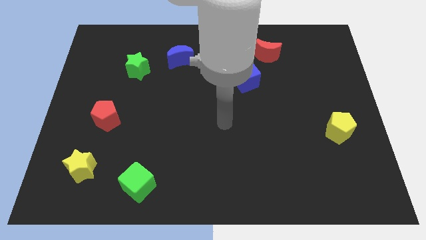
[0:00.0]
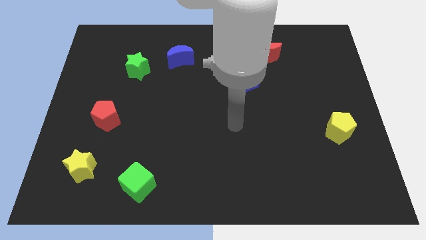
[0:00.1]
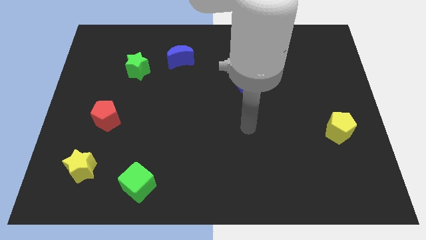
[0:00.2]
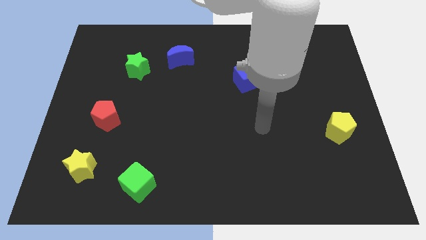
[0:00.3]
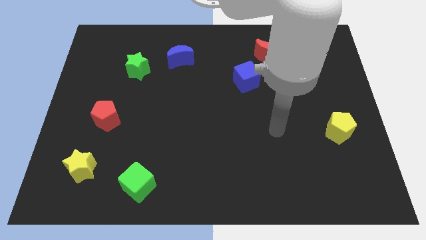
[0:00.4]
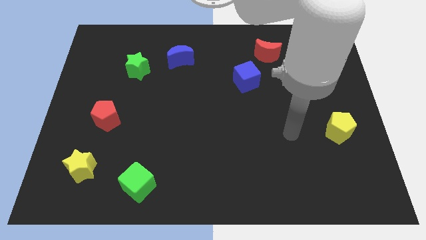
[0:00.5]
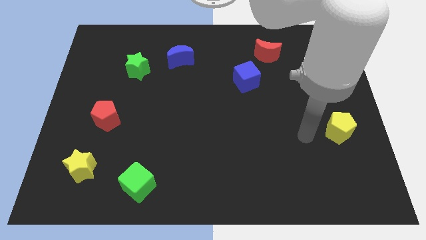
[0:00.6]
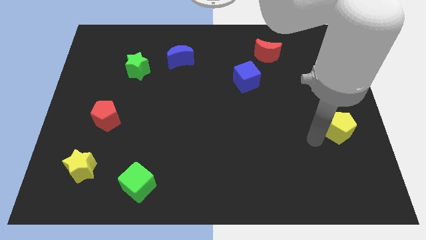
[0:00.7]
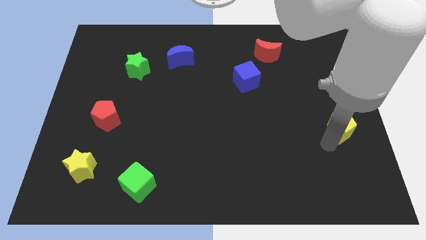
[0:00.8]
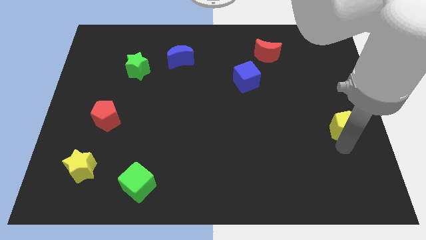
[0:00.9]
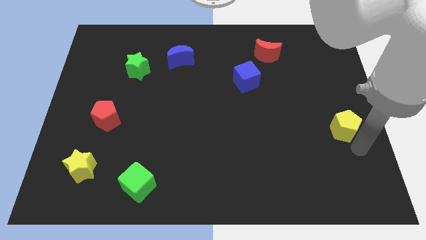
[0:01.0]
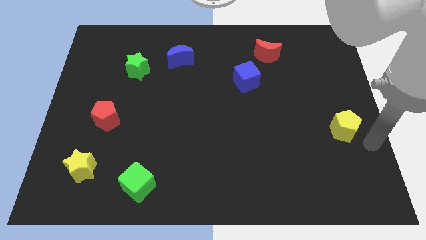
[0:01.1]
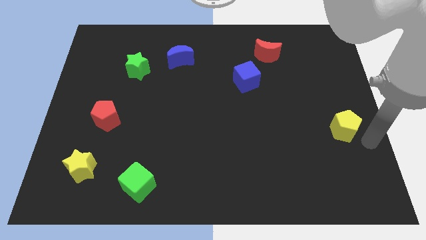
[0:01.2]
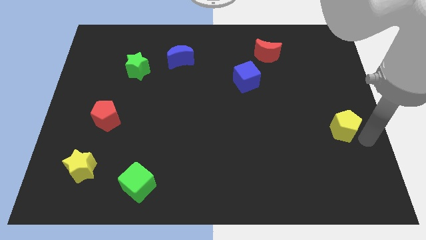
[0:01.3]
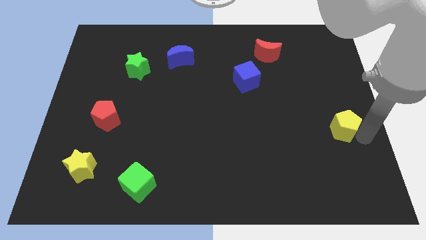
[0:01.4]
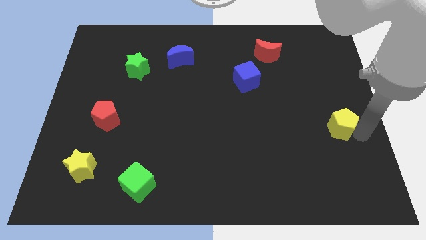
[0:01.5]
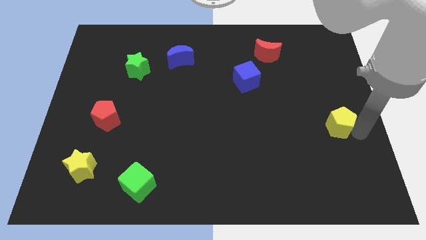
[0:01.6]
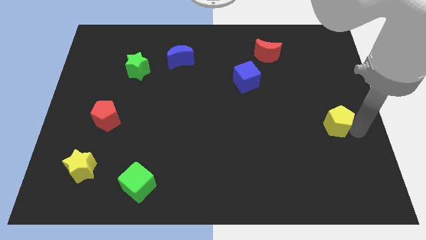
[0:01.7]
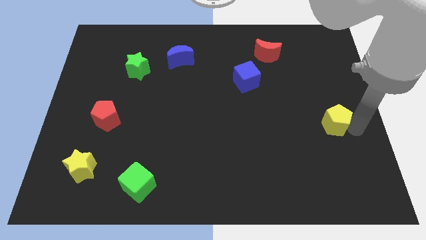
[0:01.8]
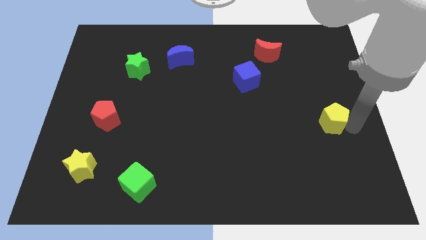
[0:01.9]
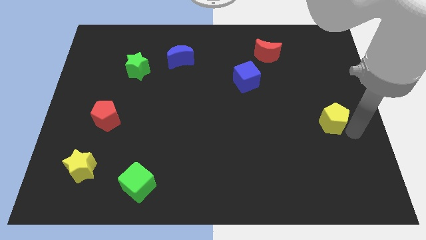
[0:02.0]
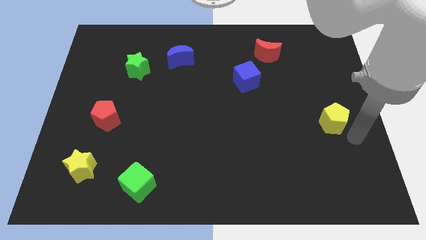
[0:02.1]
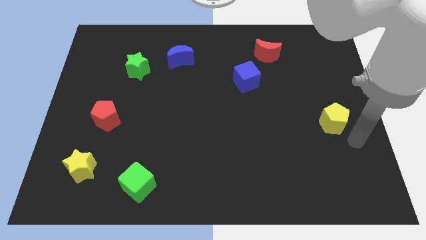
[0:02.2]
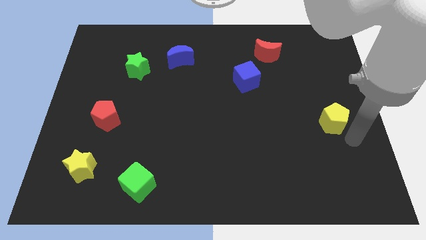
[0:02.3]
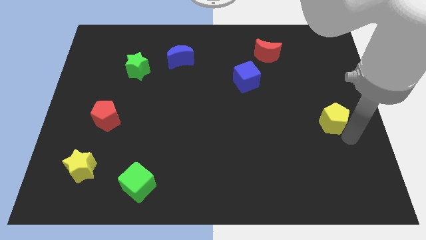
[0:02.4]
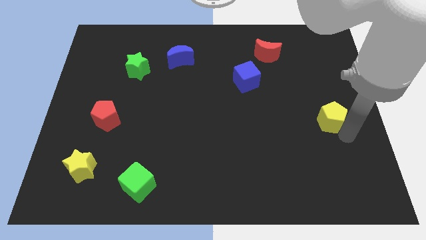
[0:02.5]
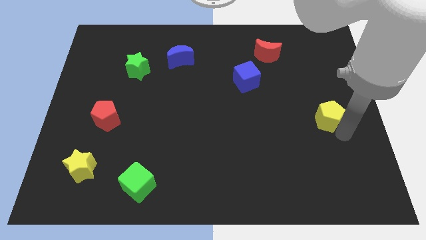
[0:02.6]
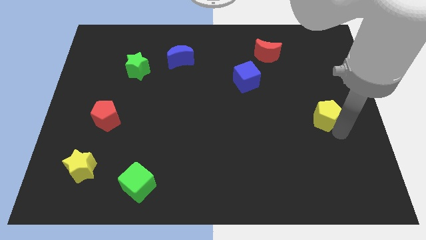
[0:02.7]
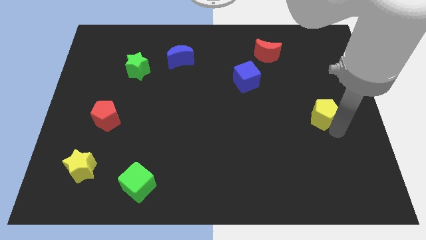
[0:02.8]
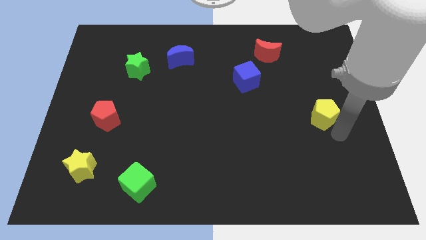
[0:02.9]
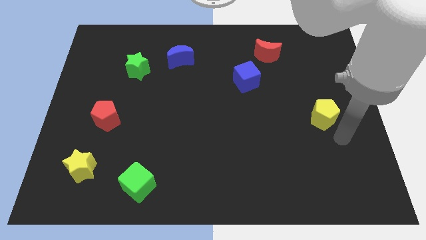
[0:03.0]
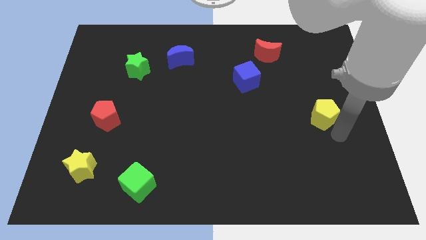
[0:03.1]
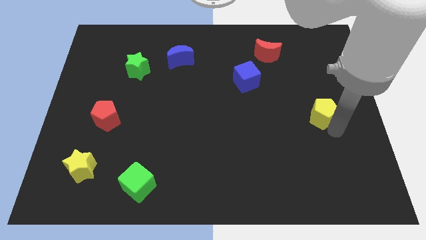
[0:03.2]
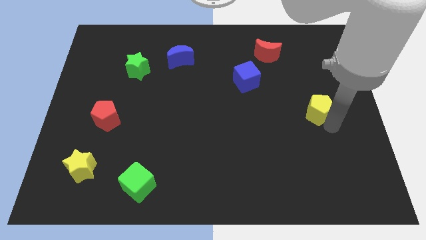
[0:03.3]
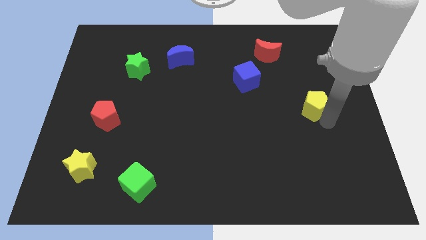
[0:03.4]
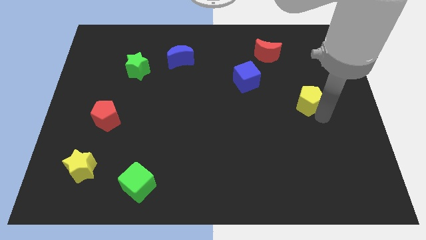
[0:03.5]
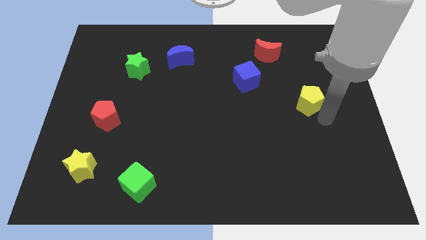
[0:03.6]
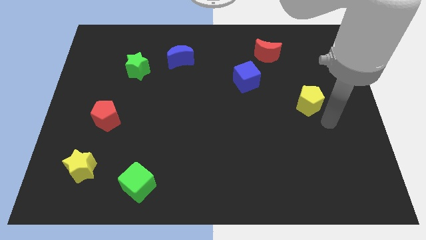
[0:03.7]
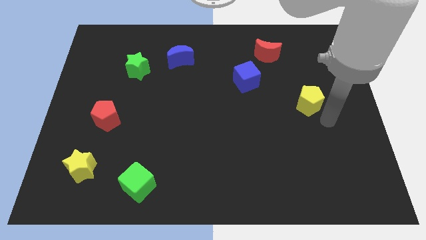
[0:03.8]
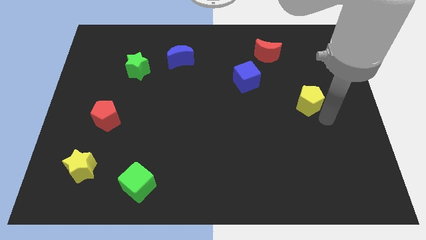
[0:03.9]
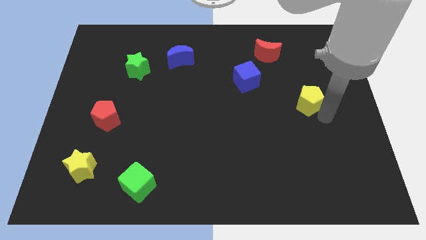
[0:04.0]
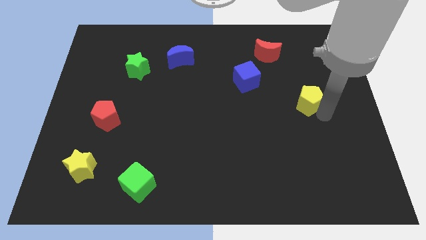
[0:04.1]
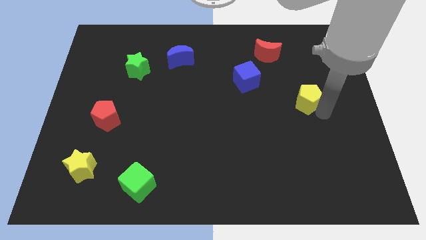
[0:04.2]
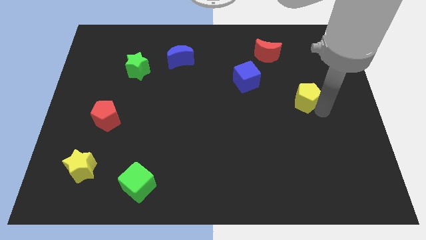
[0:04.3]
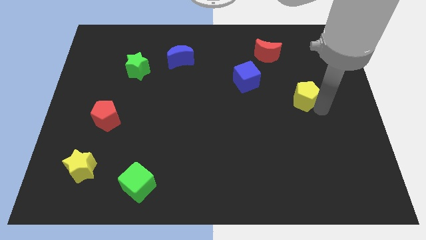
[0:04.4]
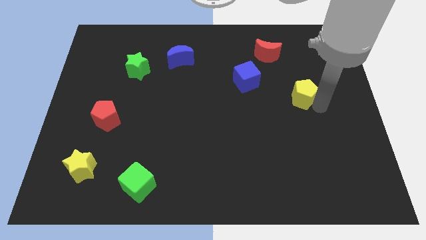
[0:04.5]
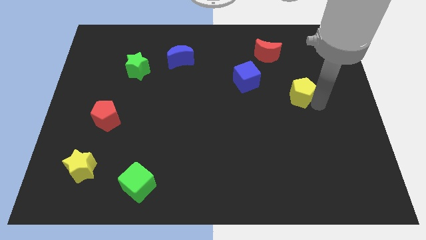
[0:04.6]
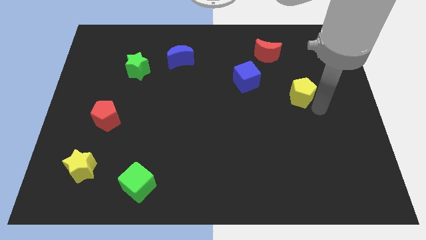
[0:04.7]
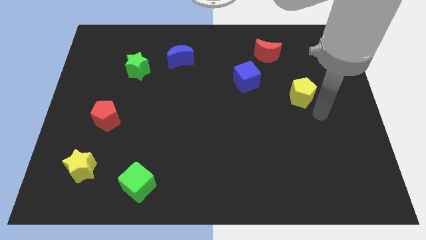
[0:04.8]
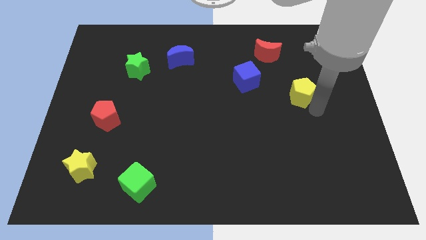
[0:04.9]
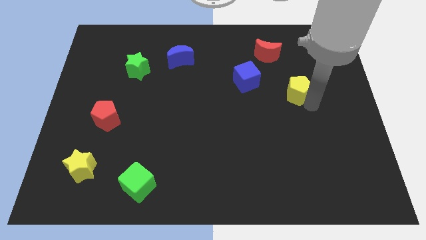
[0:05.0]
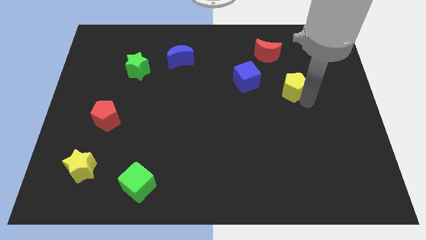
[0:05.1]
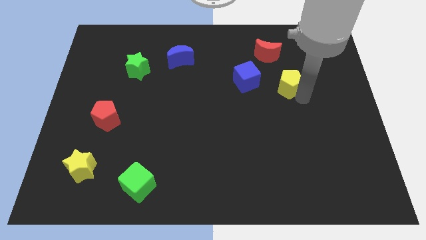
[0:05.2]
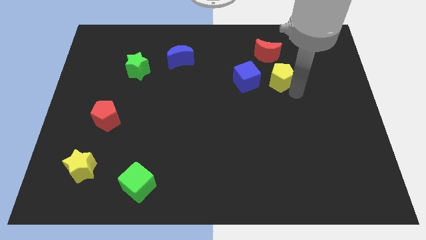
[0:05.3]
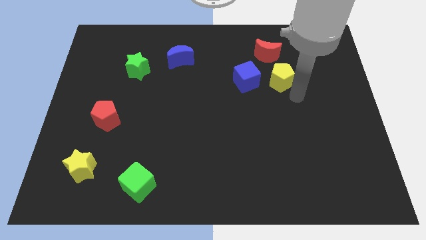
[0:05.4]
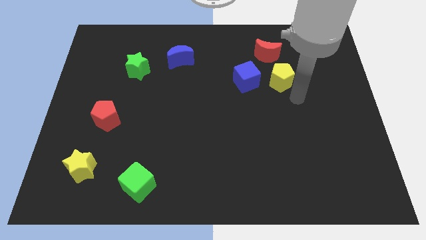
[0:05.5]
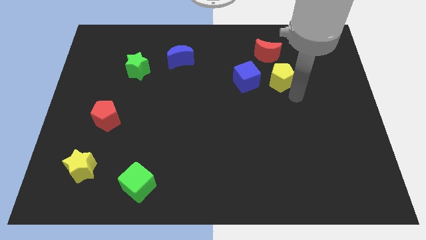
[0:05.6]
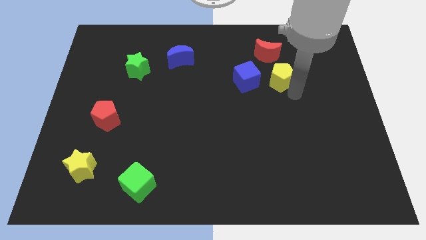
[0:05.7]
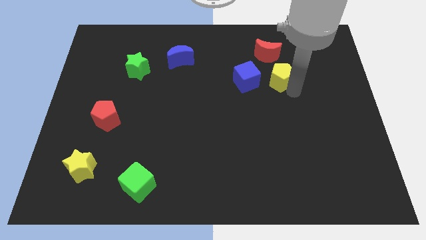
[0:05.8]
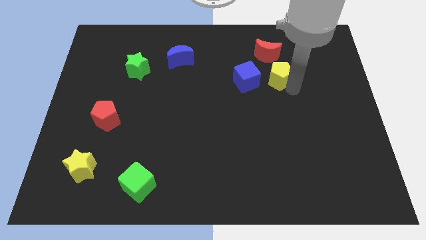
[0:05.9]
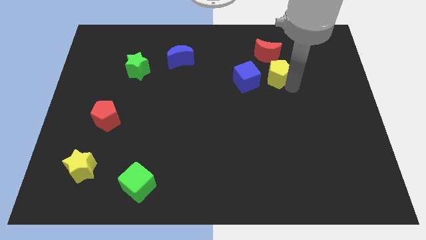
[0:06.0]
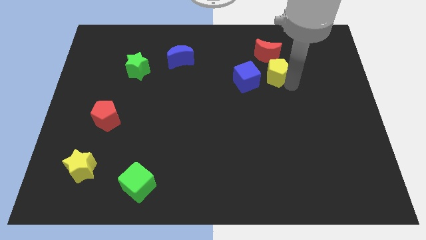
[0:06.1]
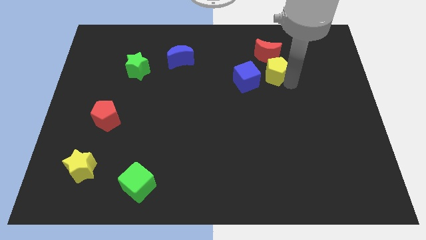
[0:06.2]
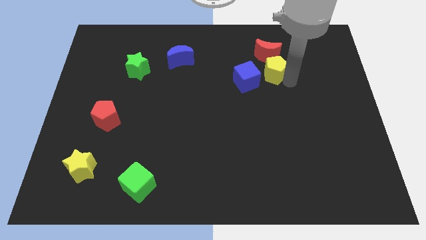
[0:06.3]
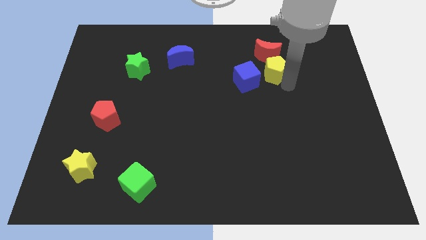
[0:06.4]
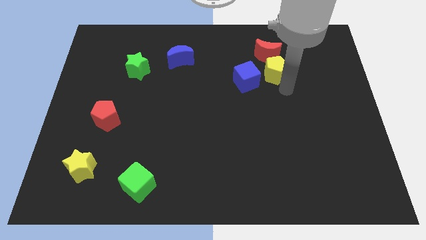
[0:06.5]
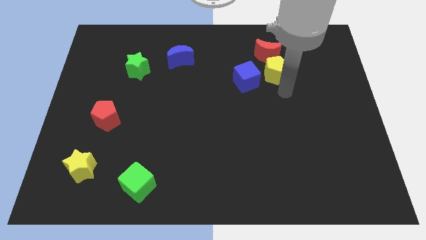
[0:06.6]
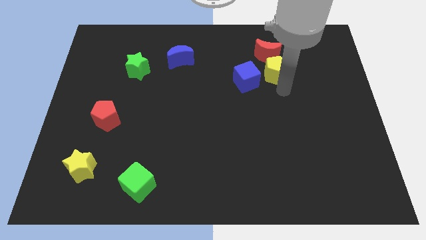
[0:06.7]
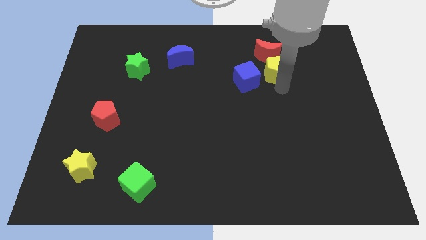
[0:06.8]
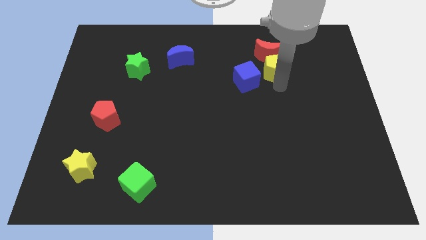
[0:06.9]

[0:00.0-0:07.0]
put the yellow pentagon towards the red moon

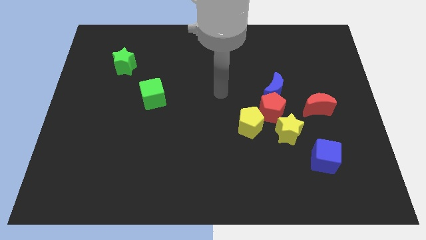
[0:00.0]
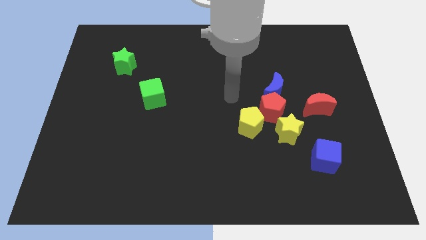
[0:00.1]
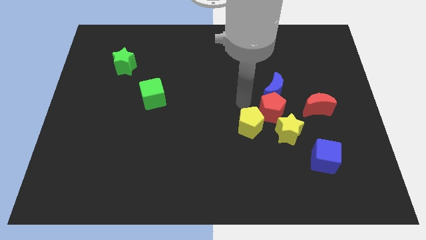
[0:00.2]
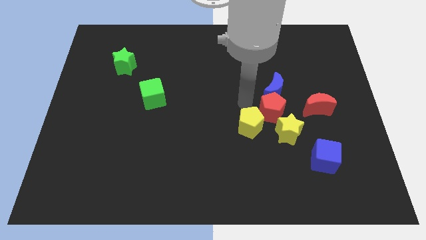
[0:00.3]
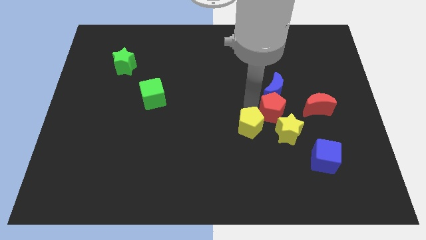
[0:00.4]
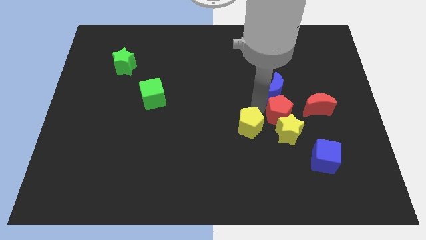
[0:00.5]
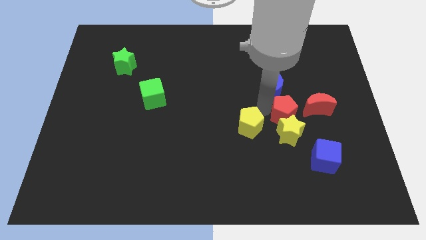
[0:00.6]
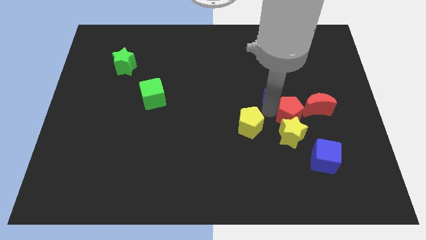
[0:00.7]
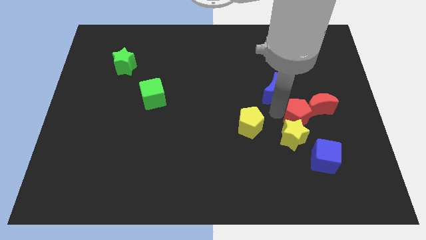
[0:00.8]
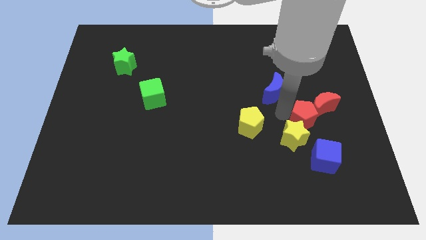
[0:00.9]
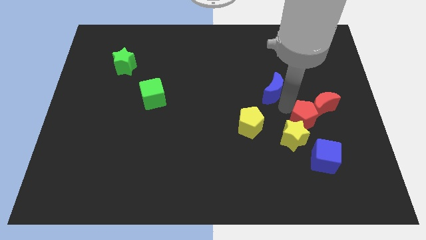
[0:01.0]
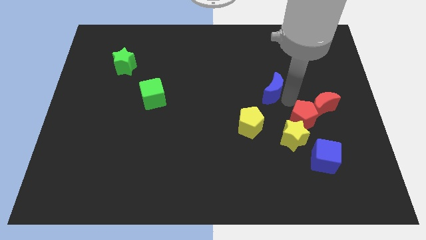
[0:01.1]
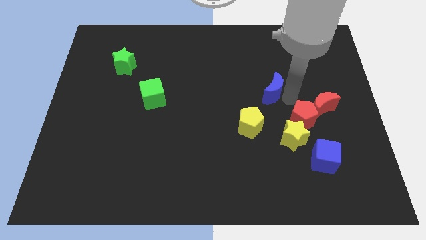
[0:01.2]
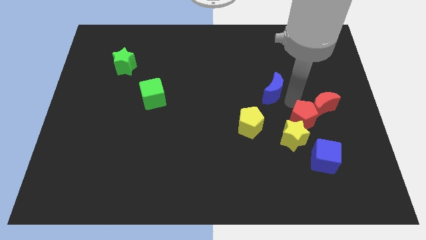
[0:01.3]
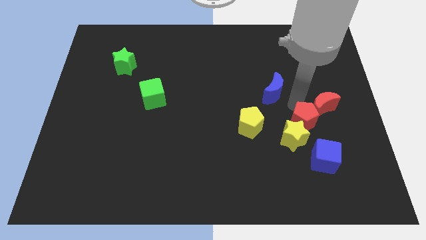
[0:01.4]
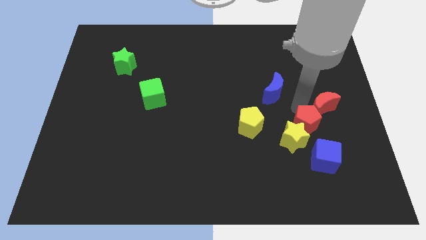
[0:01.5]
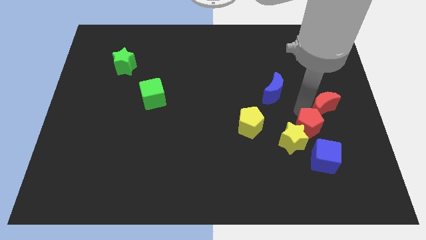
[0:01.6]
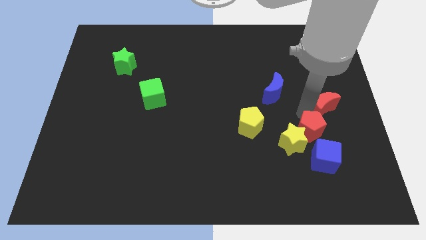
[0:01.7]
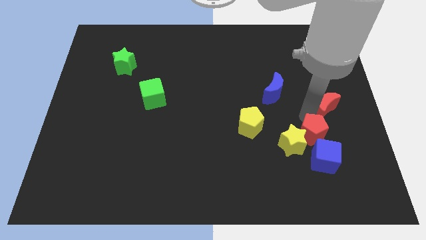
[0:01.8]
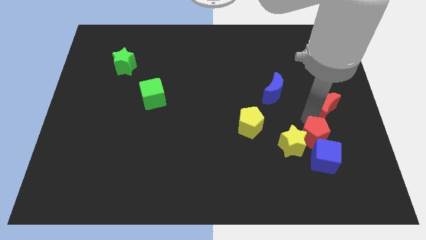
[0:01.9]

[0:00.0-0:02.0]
push the red pentagon next to the blue cube
